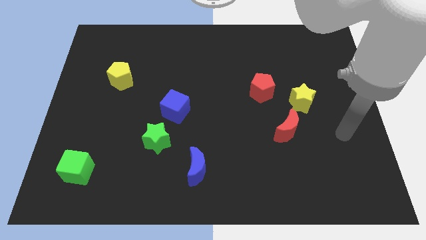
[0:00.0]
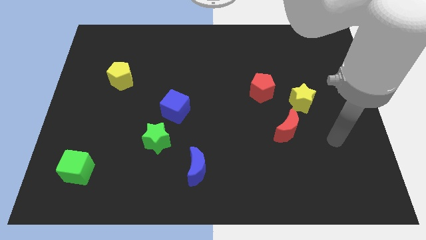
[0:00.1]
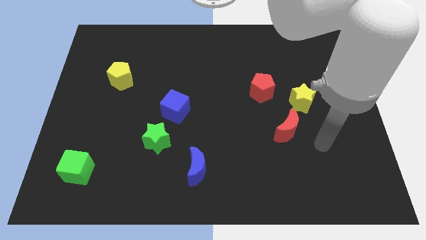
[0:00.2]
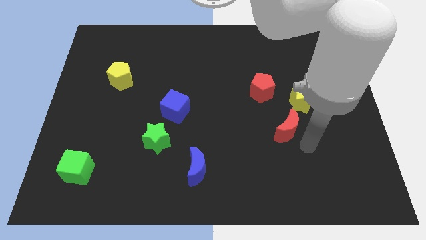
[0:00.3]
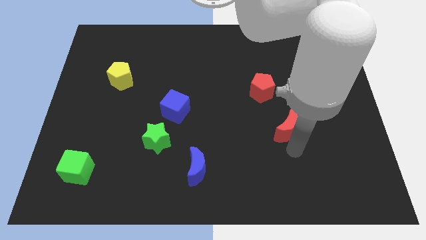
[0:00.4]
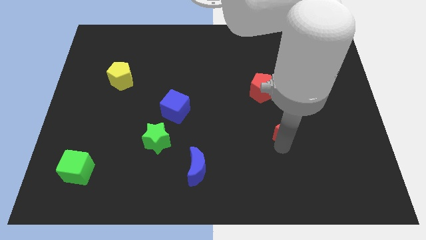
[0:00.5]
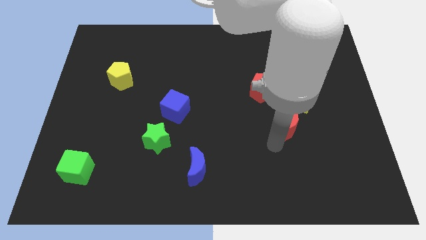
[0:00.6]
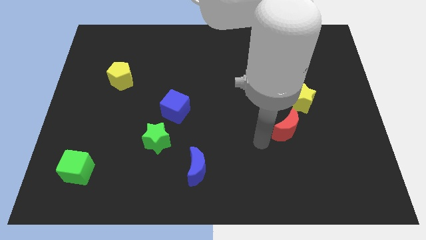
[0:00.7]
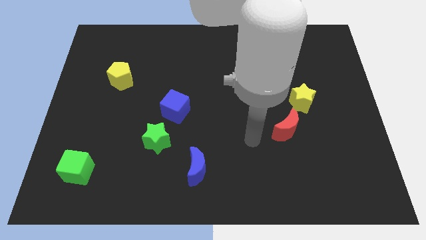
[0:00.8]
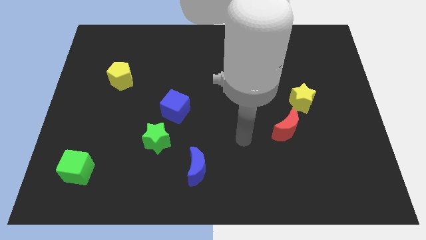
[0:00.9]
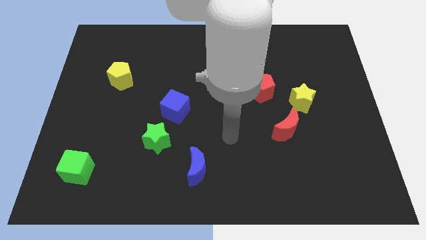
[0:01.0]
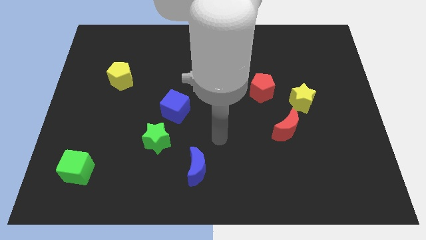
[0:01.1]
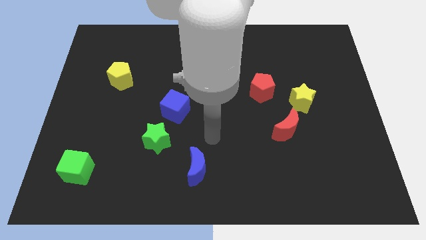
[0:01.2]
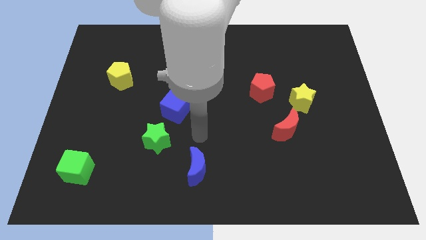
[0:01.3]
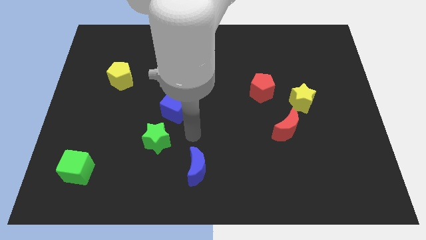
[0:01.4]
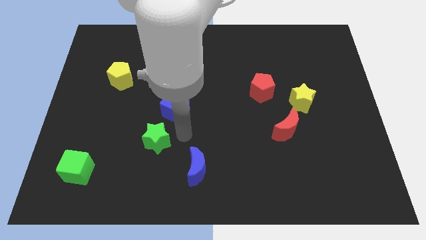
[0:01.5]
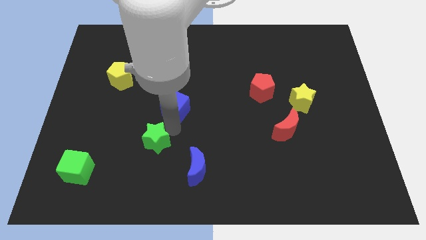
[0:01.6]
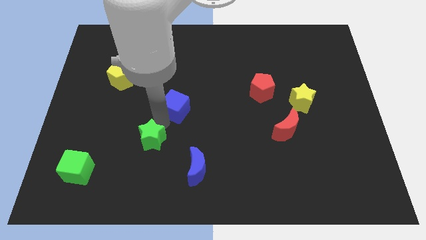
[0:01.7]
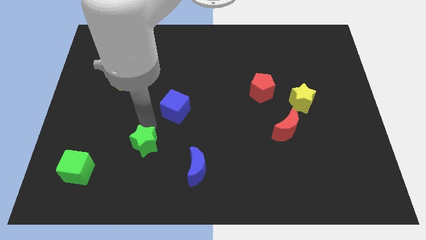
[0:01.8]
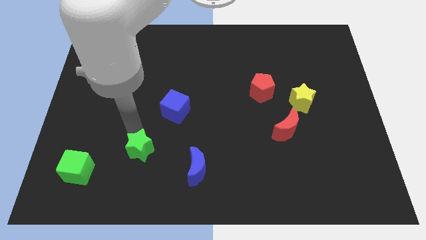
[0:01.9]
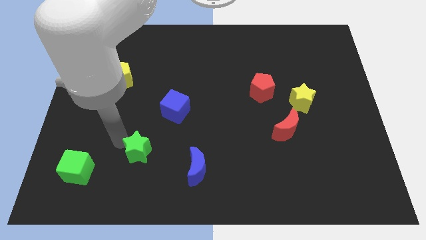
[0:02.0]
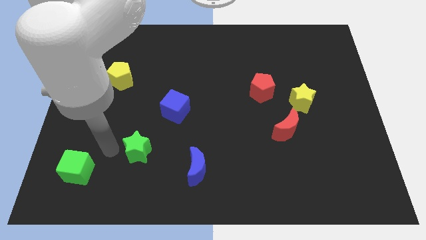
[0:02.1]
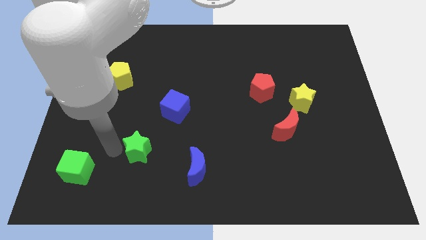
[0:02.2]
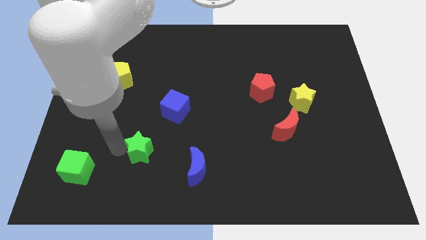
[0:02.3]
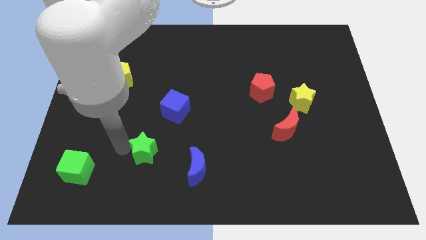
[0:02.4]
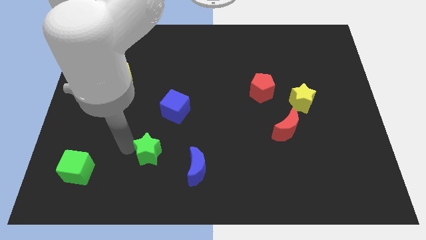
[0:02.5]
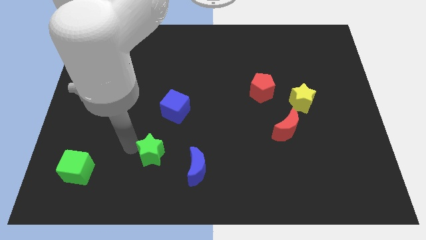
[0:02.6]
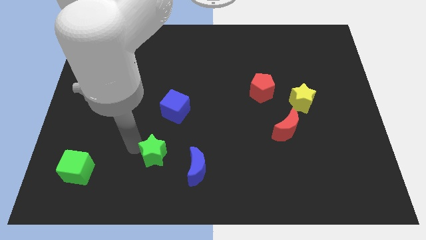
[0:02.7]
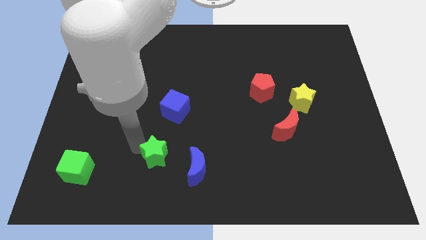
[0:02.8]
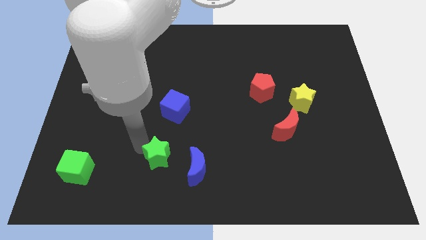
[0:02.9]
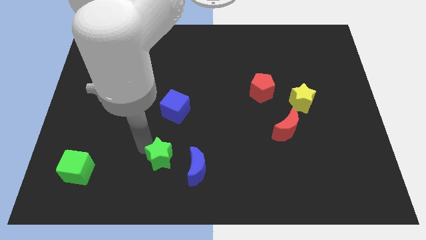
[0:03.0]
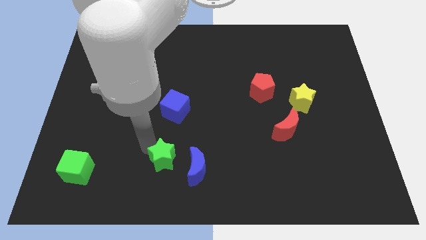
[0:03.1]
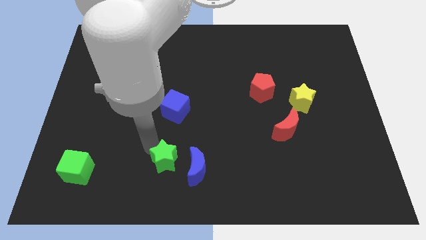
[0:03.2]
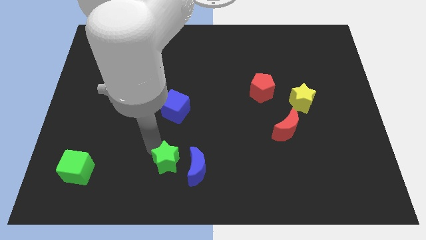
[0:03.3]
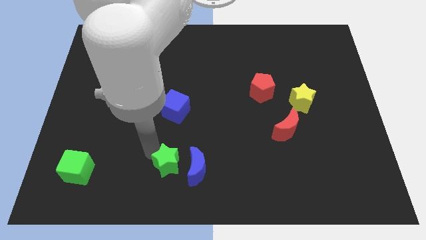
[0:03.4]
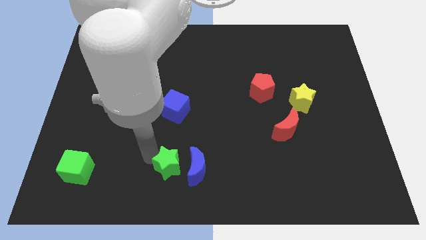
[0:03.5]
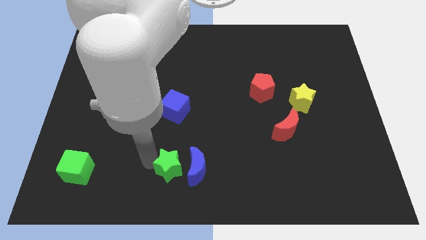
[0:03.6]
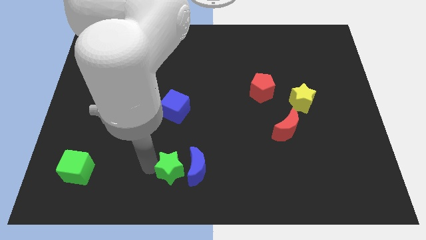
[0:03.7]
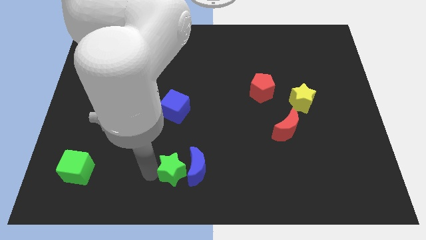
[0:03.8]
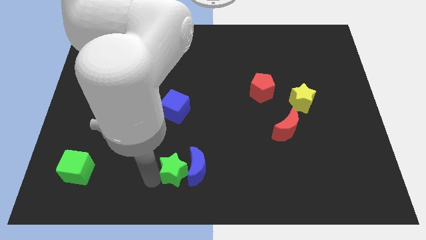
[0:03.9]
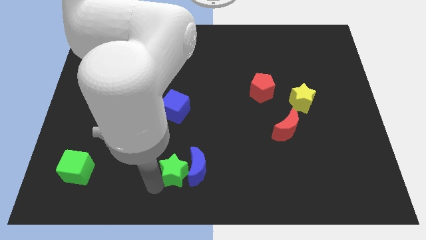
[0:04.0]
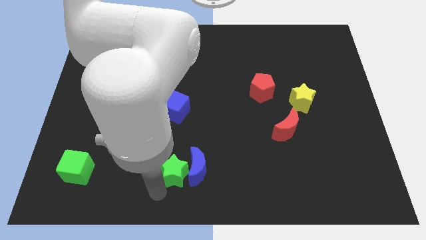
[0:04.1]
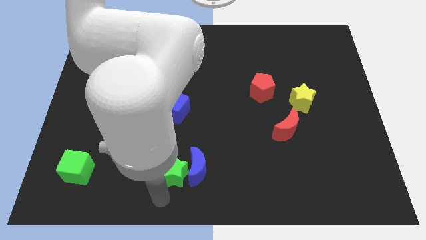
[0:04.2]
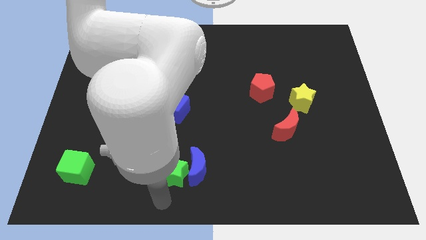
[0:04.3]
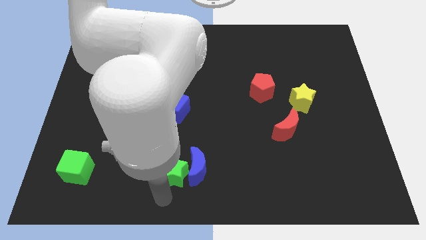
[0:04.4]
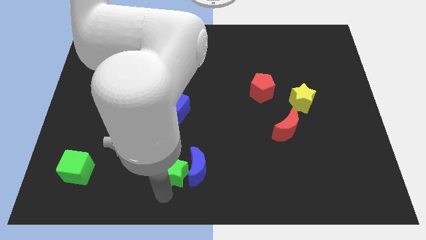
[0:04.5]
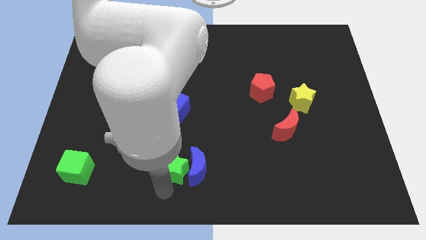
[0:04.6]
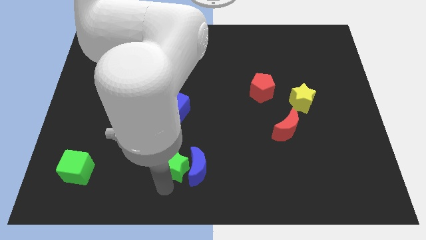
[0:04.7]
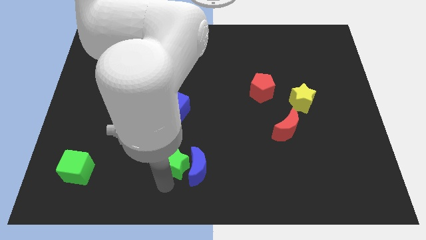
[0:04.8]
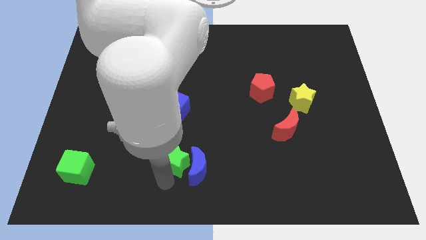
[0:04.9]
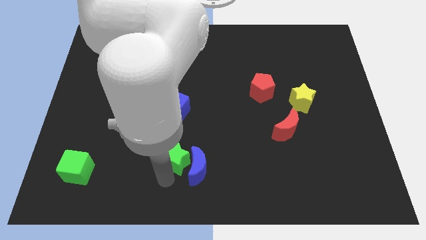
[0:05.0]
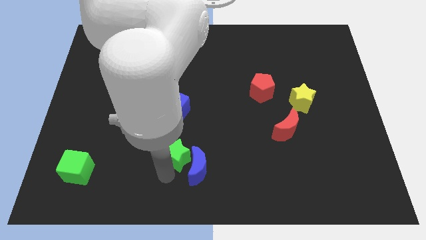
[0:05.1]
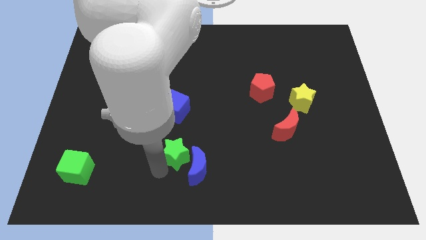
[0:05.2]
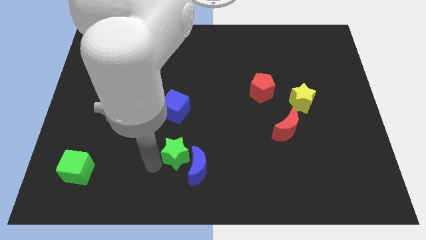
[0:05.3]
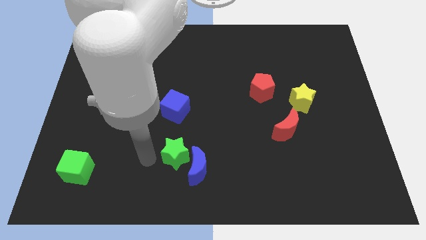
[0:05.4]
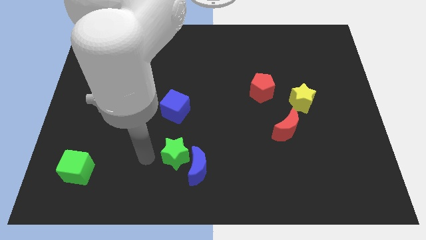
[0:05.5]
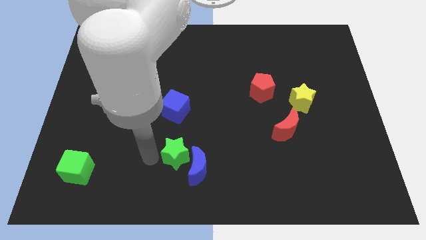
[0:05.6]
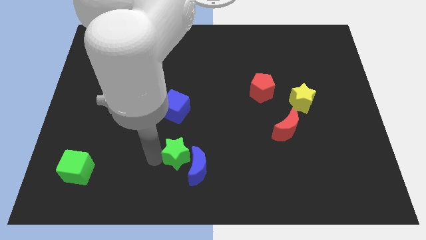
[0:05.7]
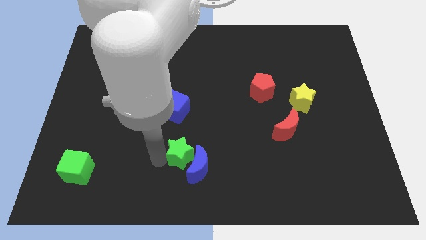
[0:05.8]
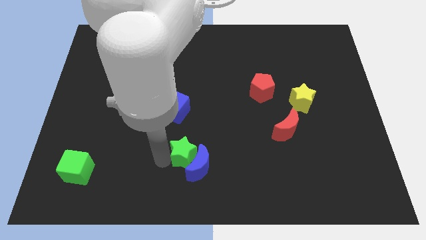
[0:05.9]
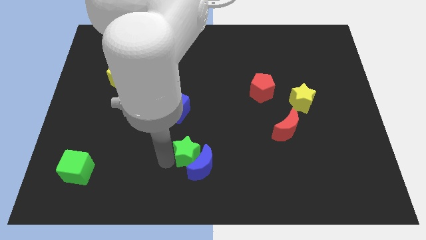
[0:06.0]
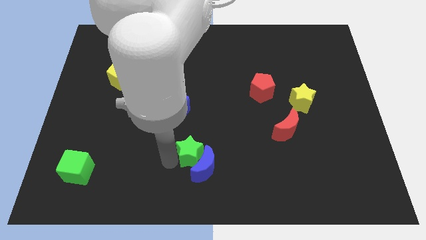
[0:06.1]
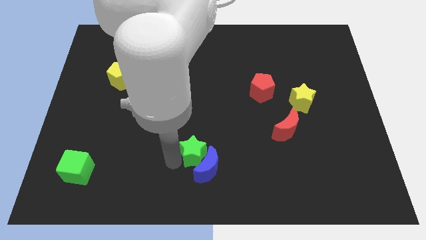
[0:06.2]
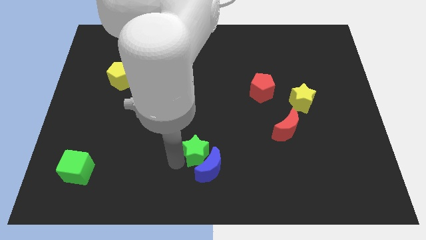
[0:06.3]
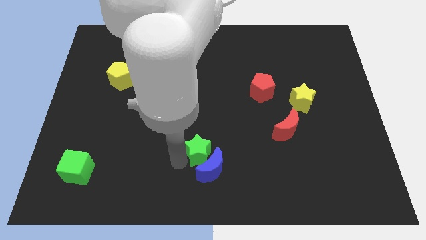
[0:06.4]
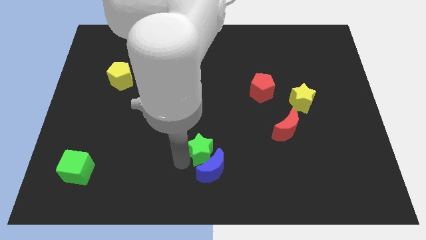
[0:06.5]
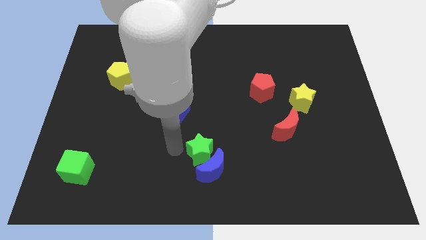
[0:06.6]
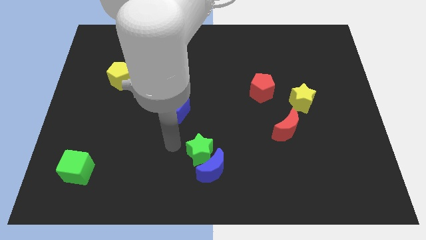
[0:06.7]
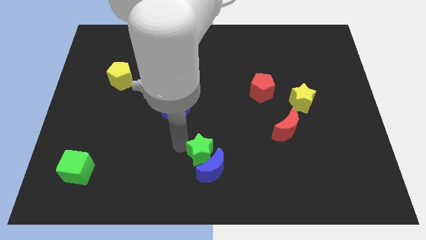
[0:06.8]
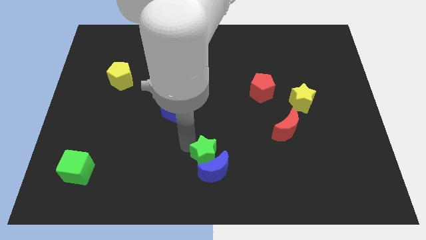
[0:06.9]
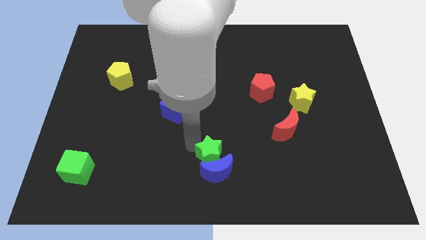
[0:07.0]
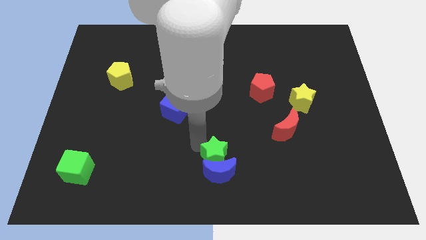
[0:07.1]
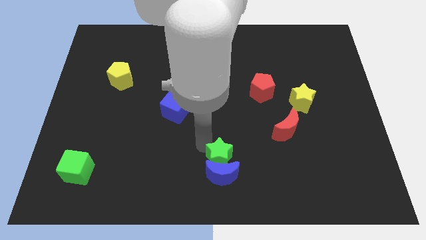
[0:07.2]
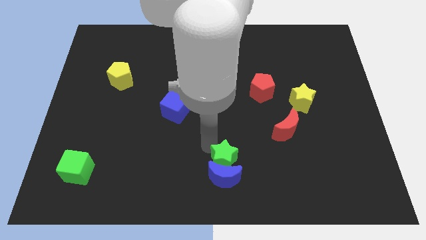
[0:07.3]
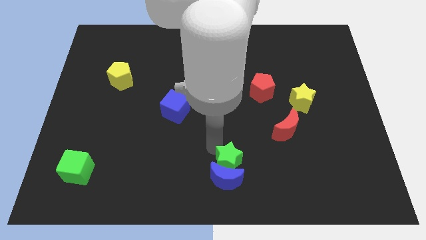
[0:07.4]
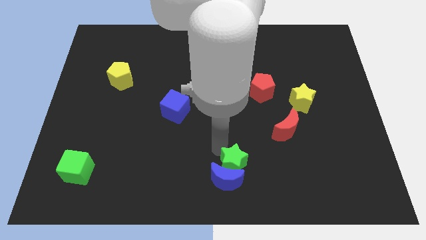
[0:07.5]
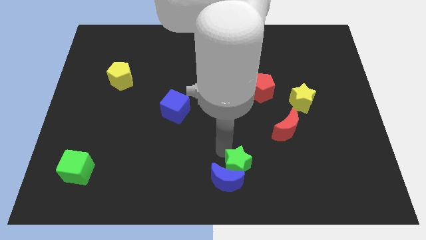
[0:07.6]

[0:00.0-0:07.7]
slide the green star just right of the blue moon
